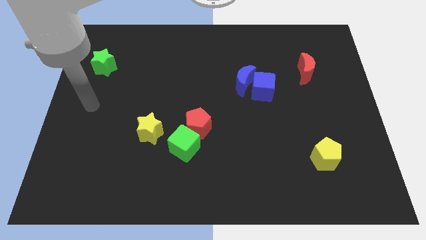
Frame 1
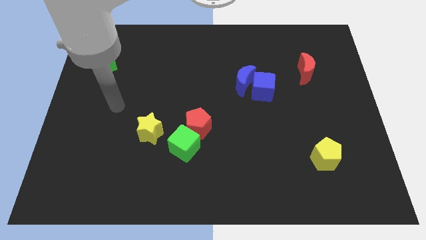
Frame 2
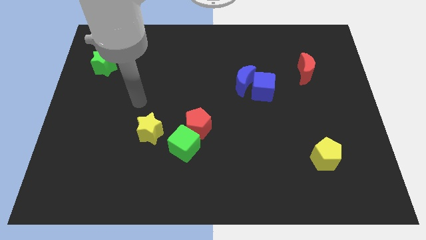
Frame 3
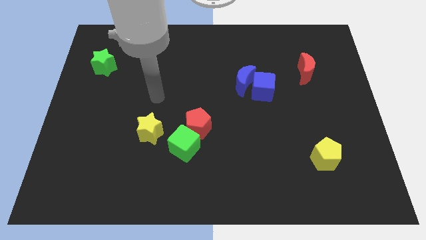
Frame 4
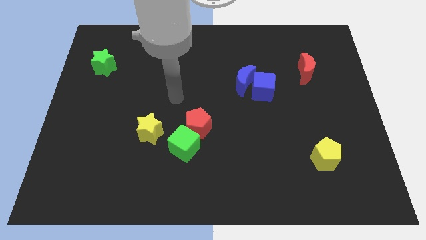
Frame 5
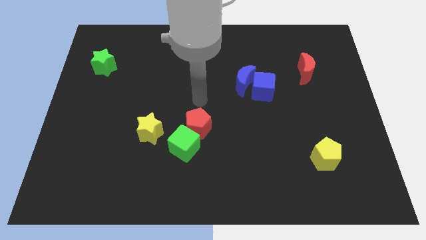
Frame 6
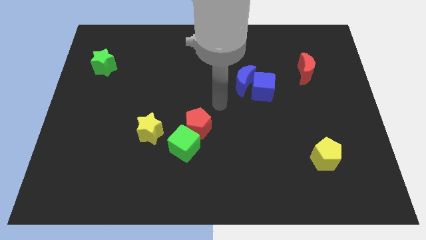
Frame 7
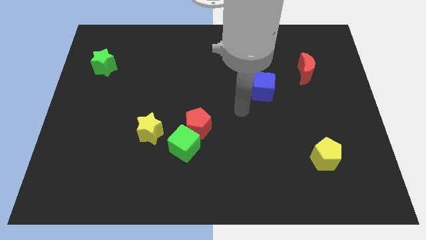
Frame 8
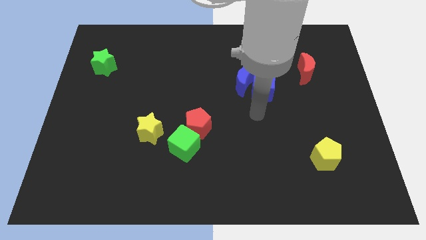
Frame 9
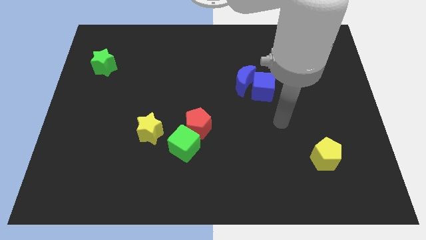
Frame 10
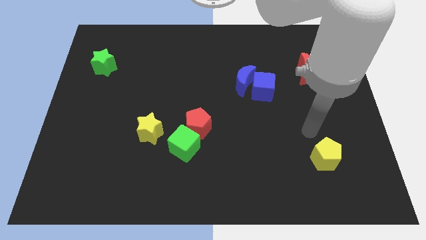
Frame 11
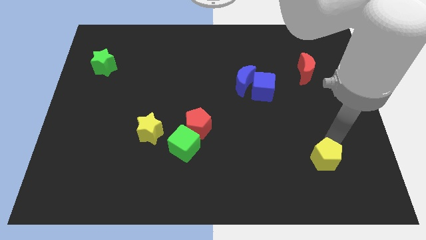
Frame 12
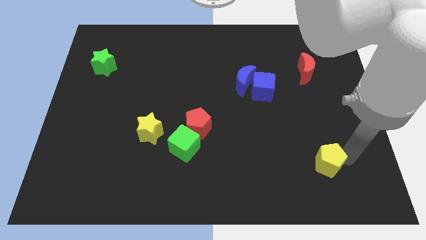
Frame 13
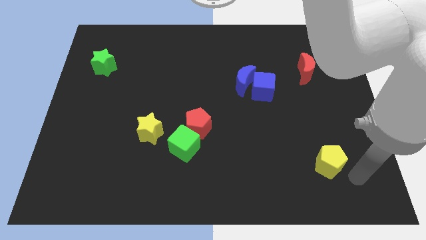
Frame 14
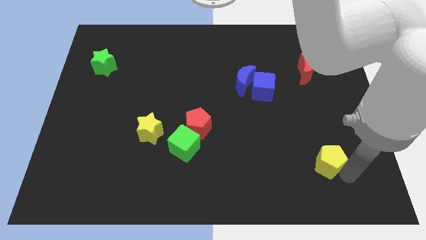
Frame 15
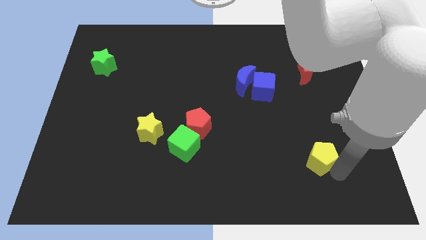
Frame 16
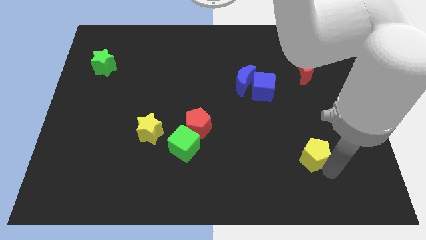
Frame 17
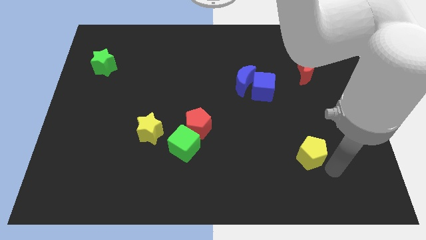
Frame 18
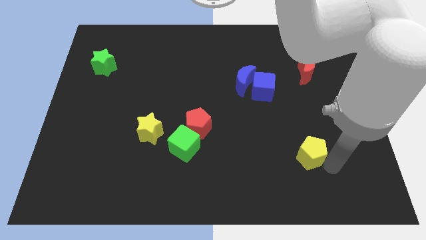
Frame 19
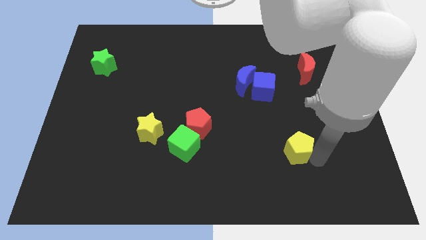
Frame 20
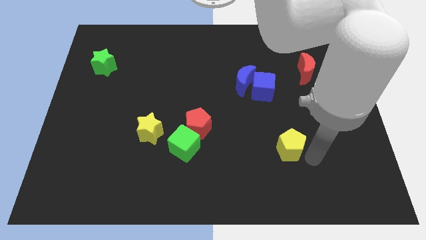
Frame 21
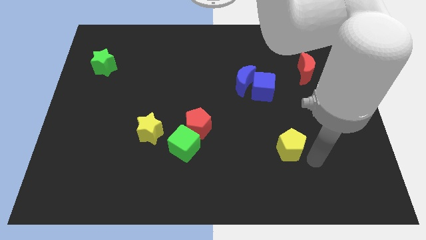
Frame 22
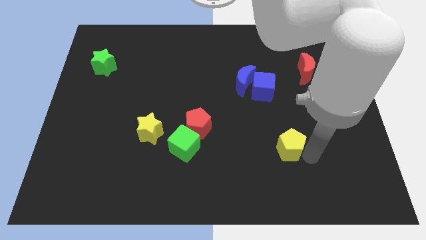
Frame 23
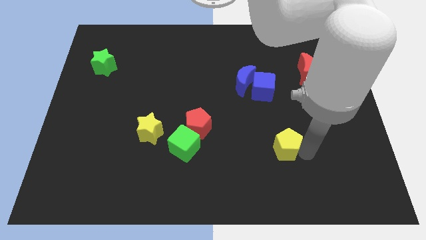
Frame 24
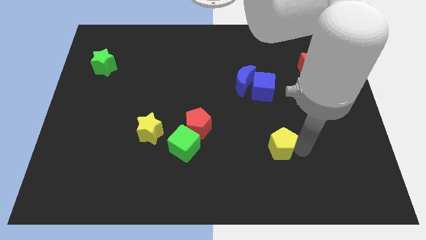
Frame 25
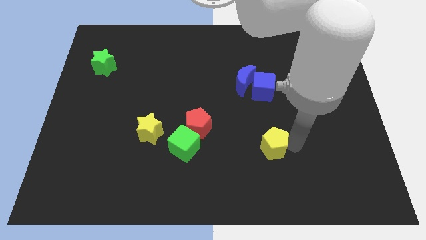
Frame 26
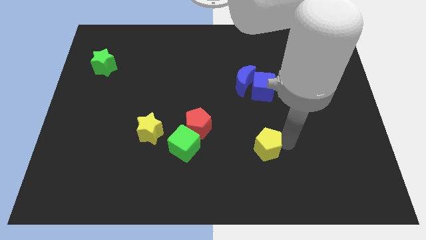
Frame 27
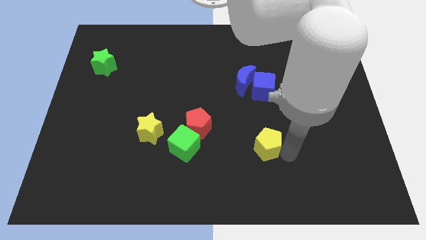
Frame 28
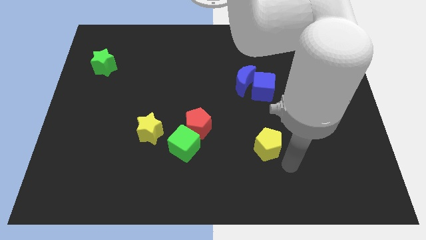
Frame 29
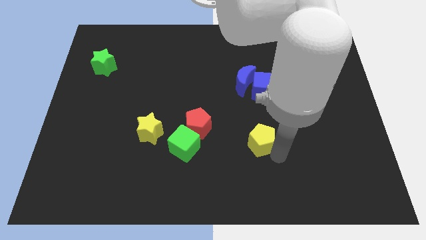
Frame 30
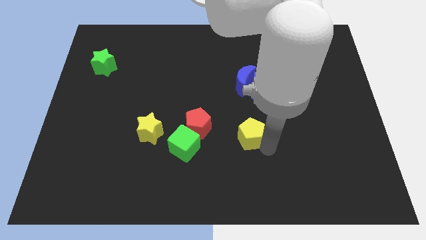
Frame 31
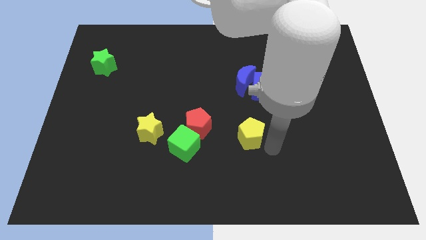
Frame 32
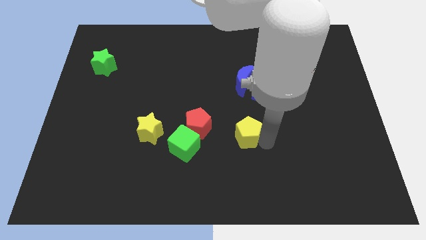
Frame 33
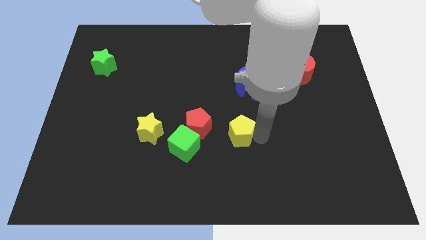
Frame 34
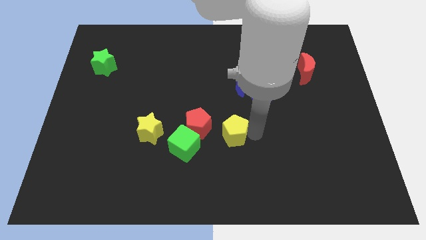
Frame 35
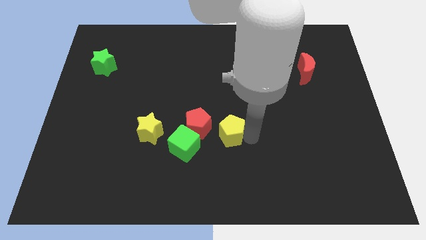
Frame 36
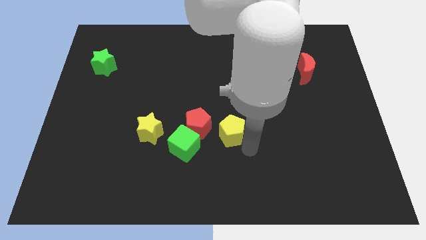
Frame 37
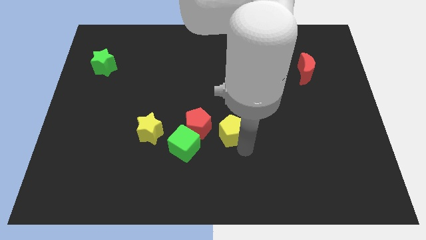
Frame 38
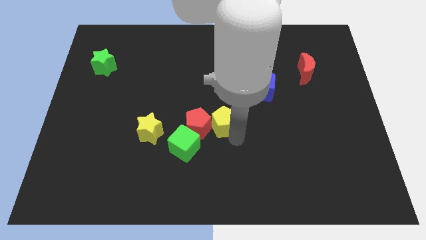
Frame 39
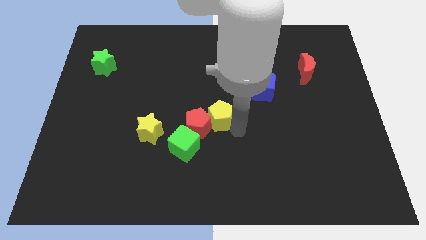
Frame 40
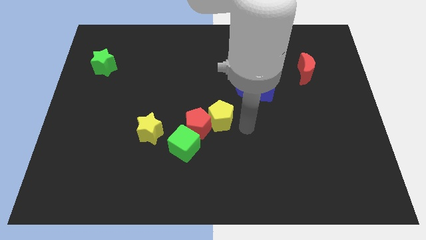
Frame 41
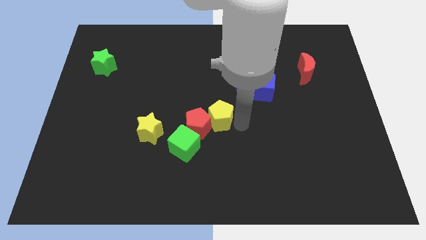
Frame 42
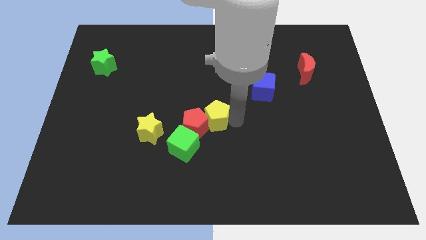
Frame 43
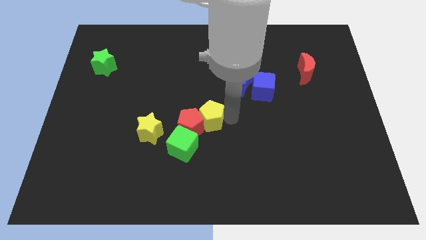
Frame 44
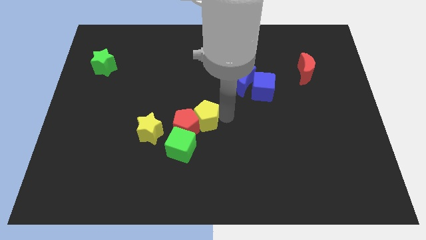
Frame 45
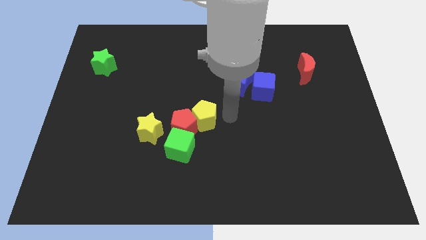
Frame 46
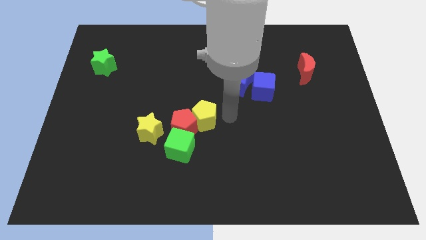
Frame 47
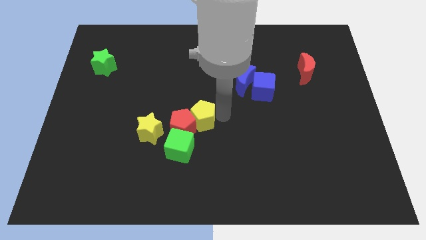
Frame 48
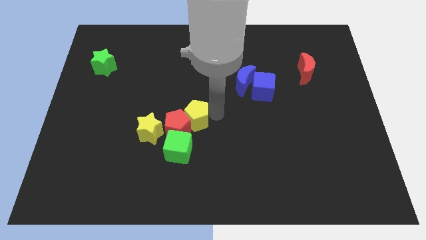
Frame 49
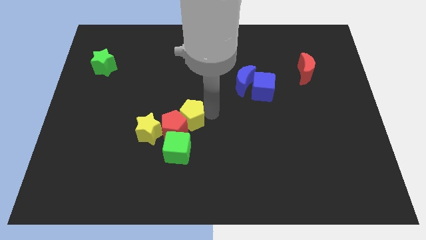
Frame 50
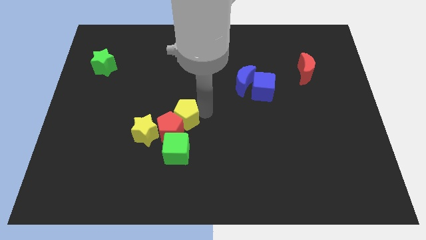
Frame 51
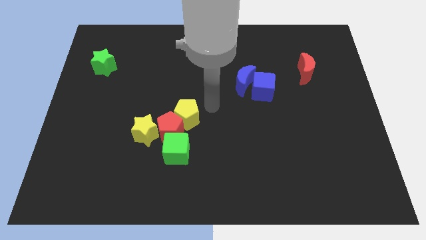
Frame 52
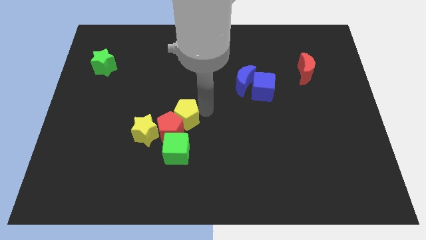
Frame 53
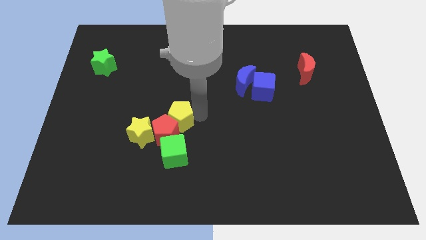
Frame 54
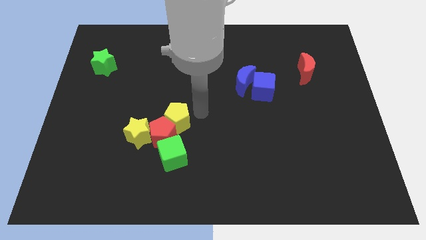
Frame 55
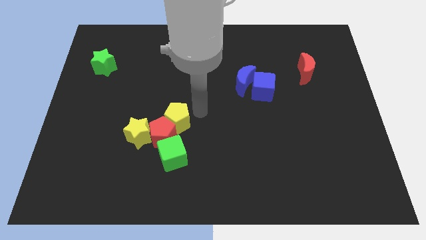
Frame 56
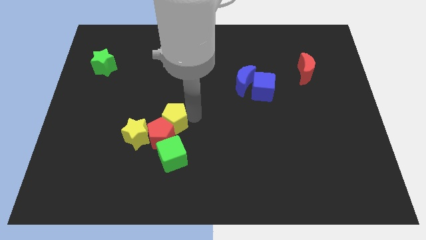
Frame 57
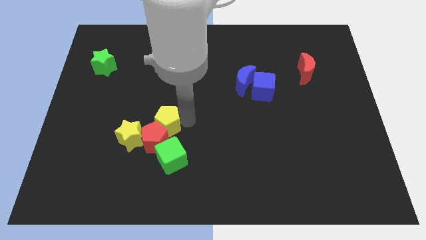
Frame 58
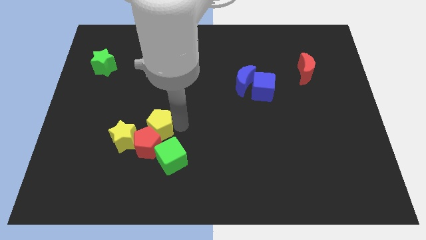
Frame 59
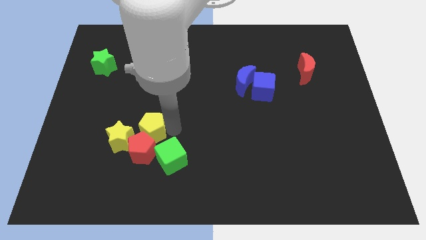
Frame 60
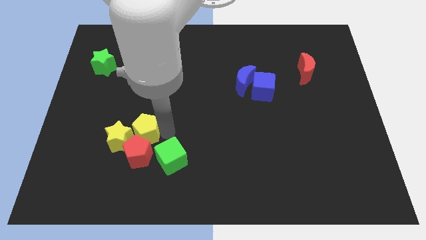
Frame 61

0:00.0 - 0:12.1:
put the yellow pentagon next to the yellow star

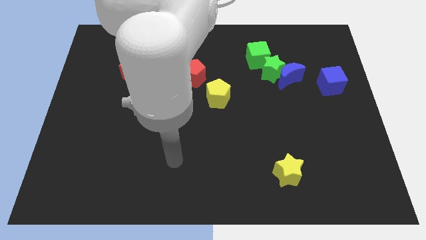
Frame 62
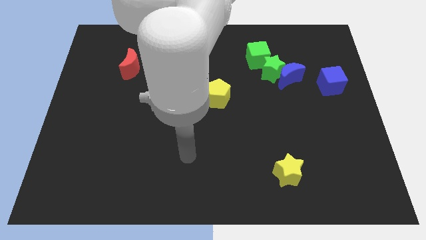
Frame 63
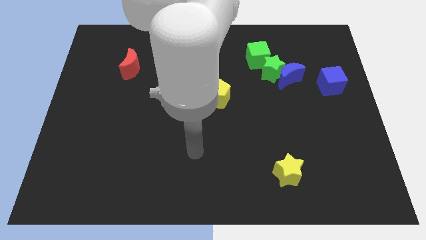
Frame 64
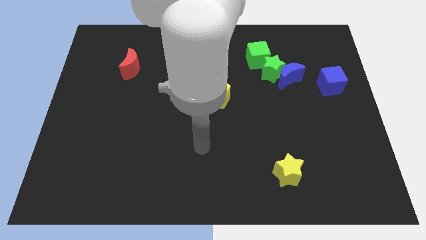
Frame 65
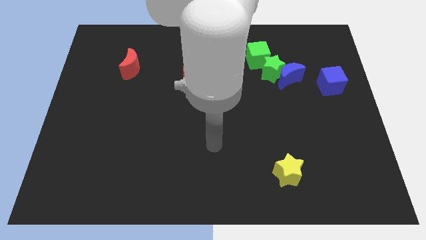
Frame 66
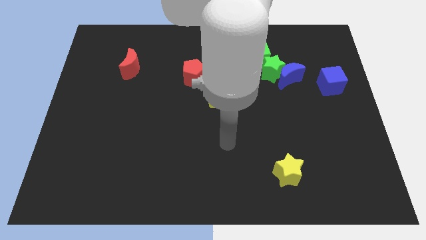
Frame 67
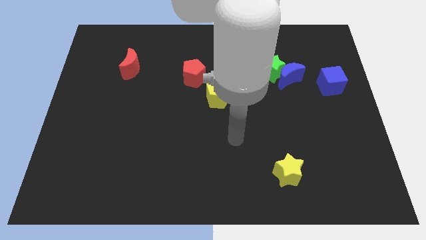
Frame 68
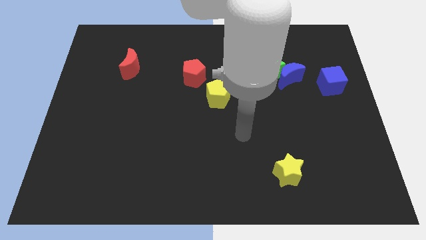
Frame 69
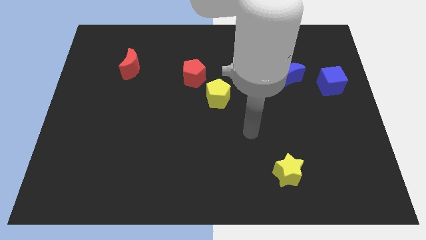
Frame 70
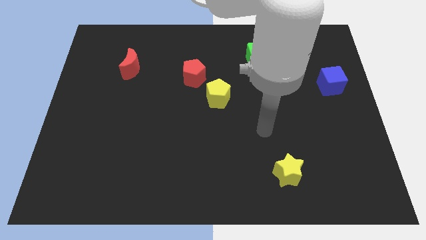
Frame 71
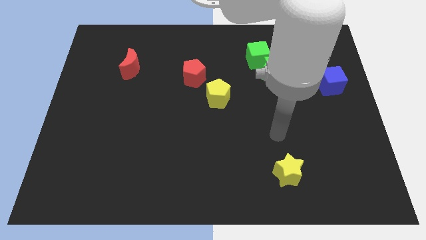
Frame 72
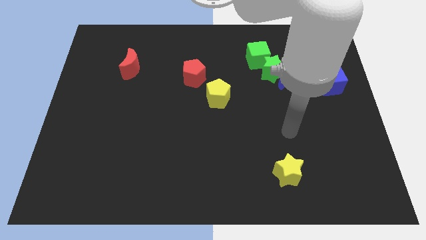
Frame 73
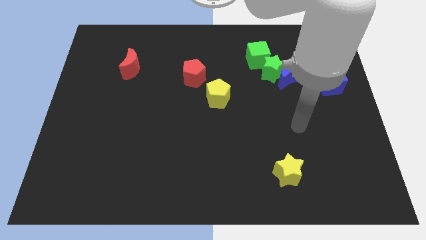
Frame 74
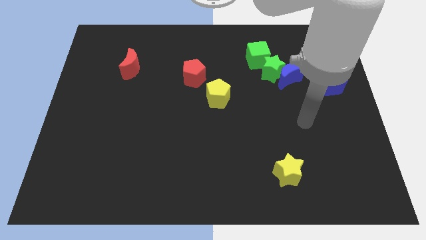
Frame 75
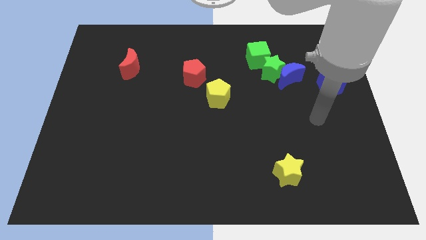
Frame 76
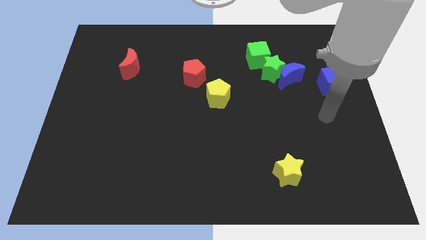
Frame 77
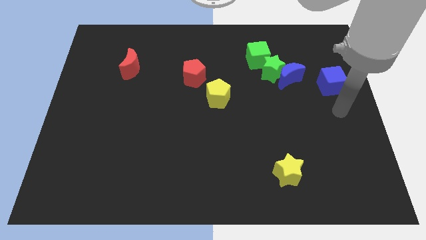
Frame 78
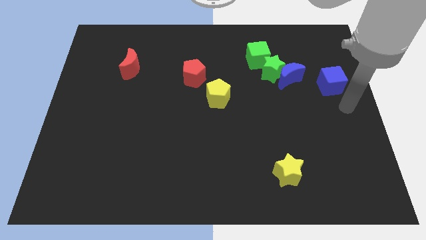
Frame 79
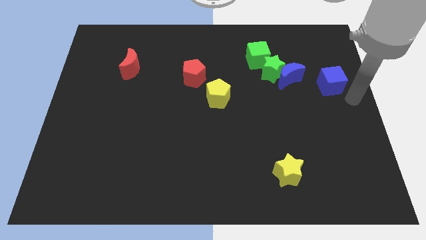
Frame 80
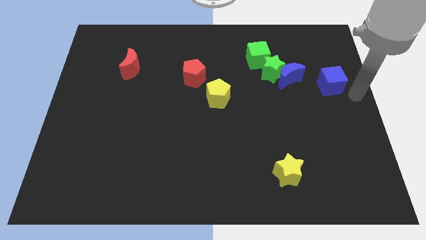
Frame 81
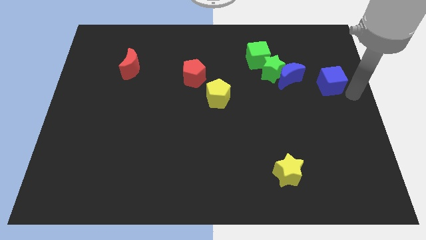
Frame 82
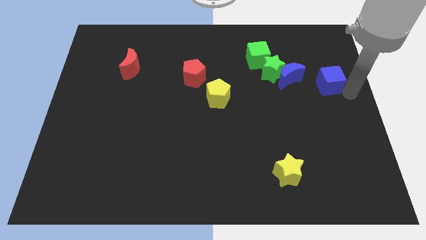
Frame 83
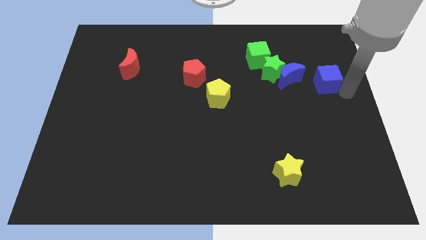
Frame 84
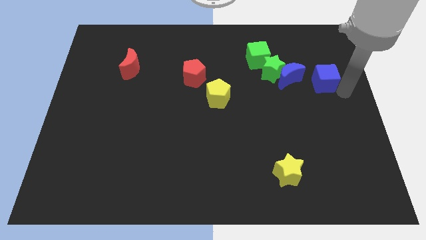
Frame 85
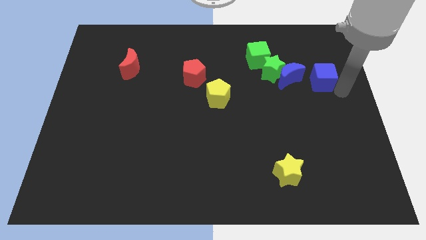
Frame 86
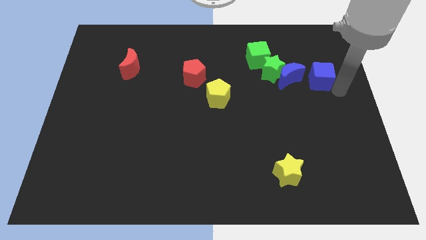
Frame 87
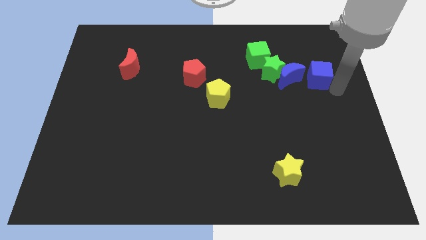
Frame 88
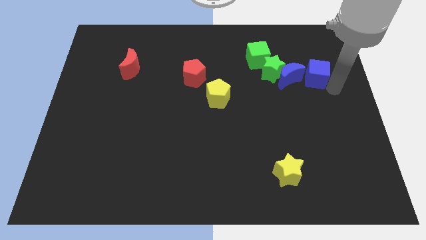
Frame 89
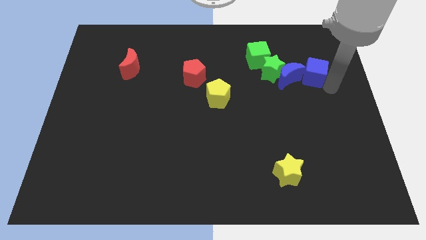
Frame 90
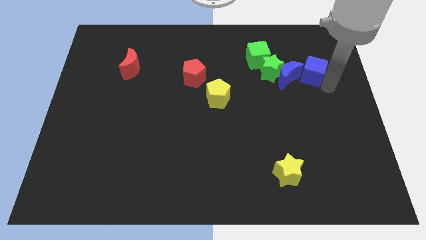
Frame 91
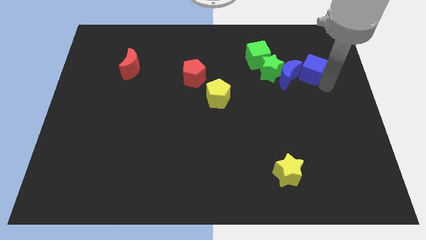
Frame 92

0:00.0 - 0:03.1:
push the blue cube next to the blue moon
